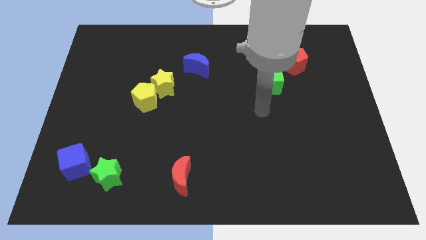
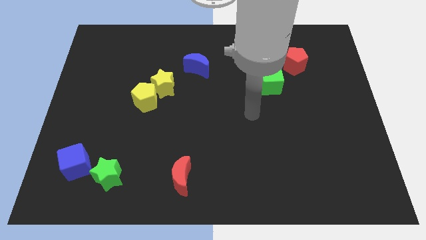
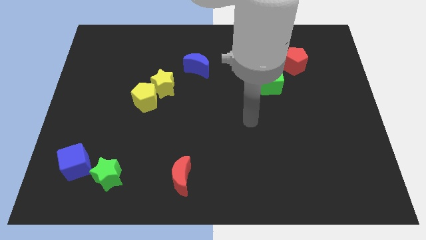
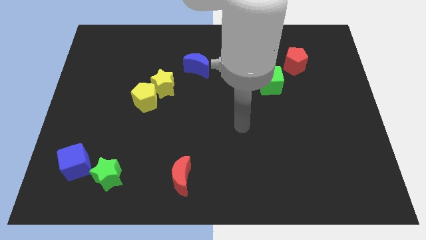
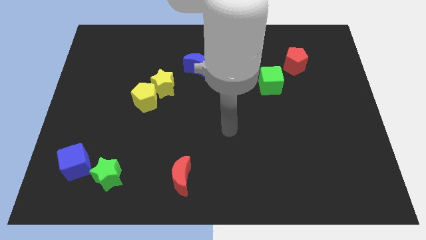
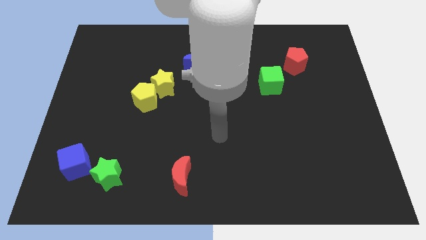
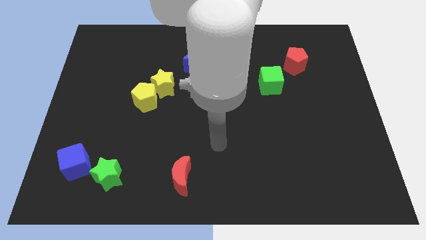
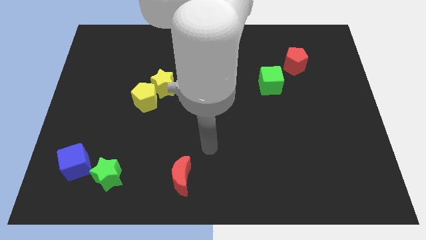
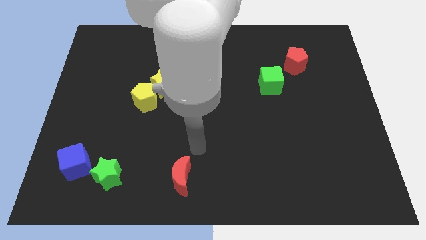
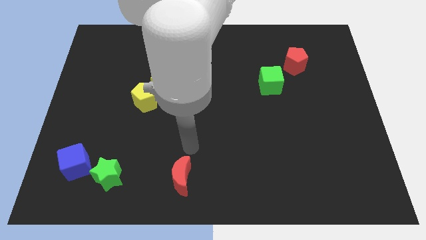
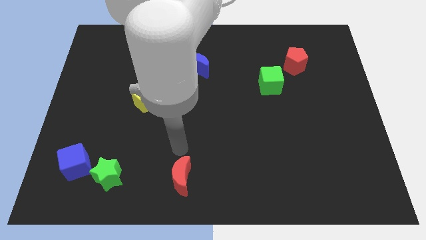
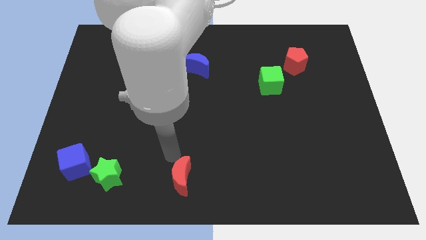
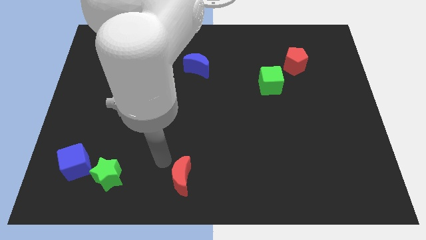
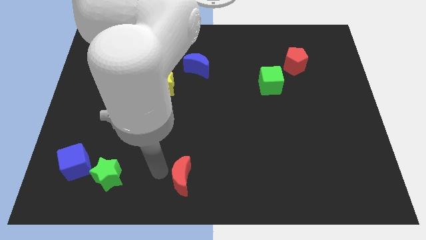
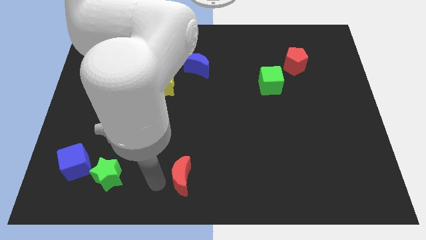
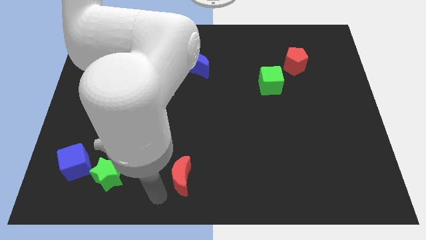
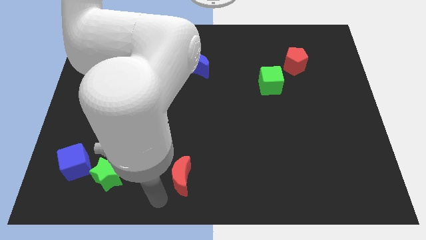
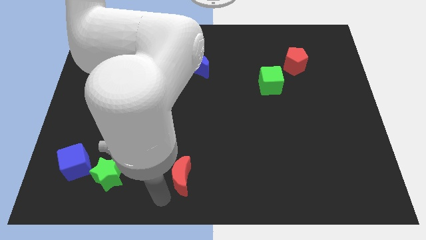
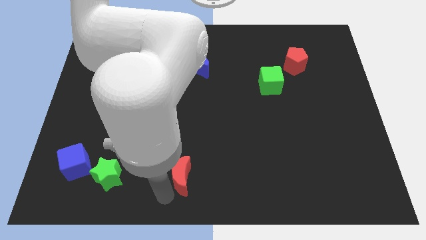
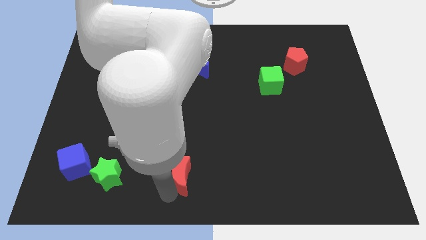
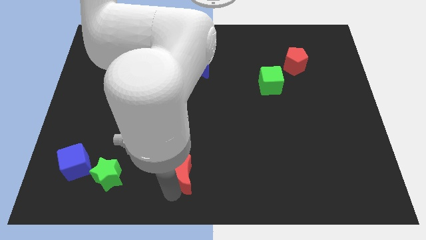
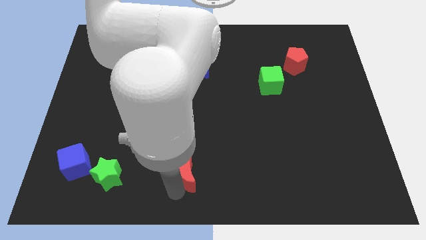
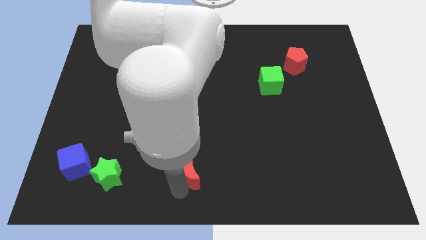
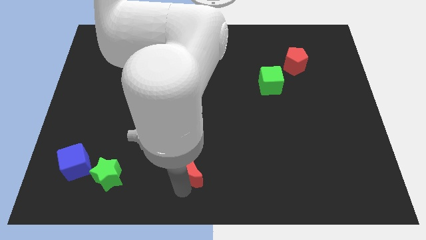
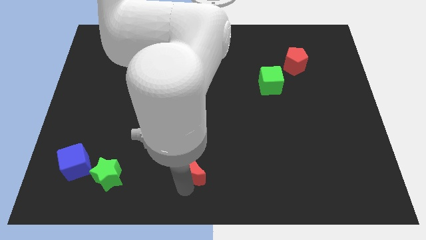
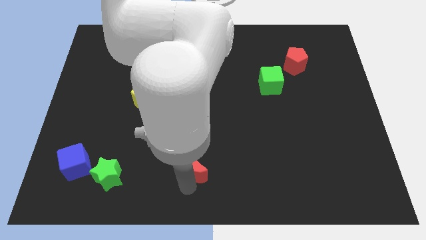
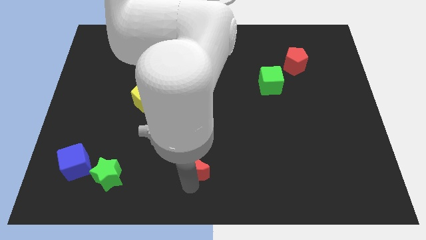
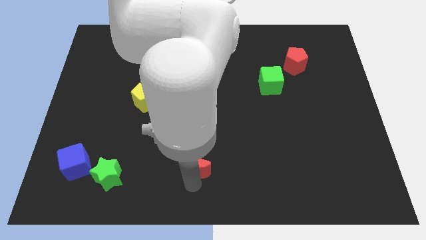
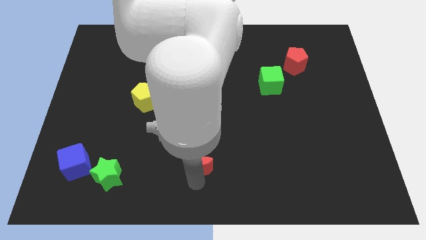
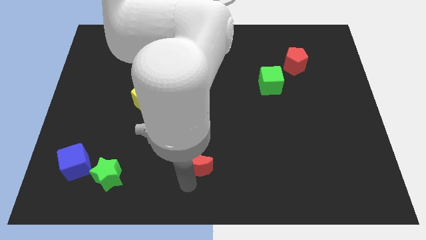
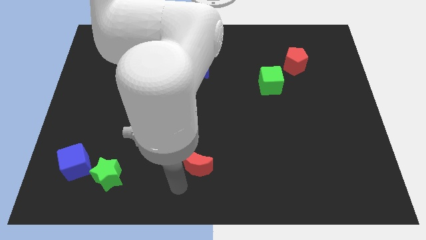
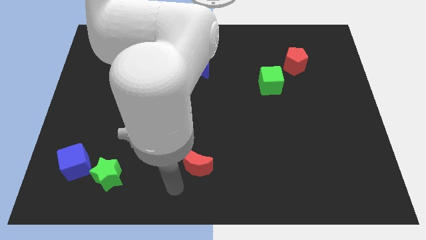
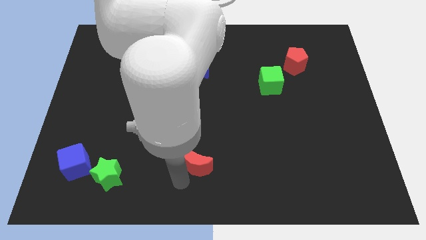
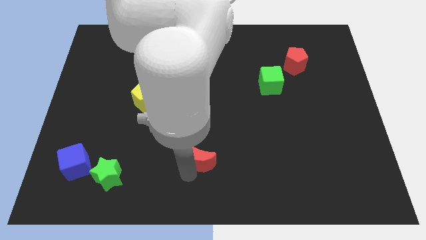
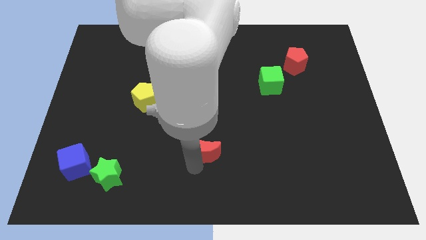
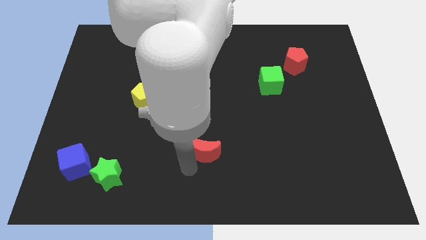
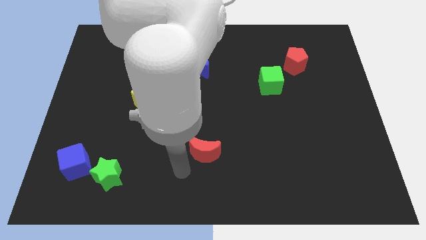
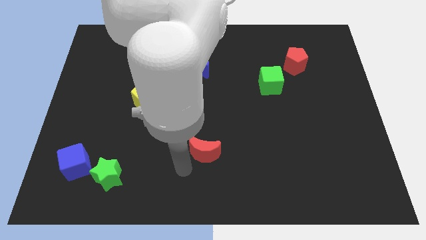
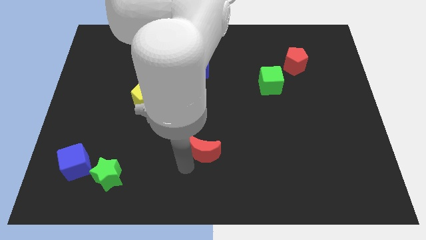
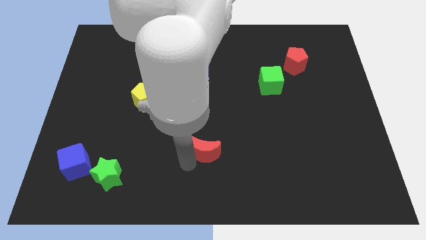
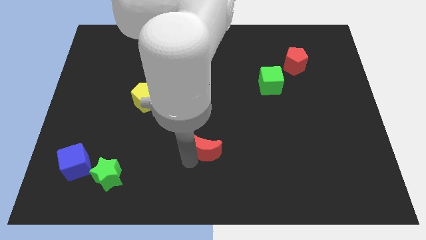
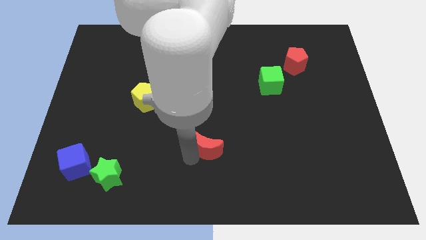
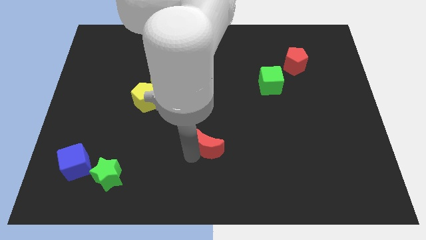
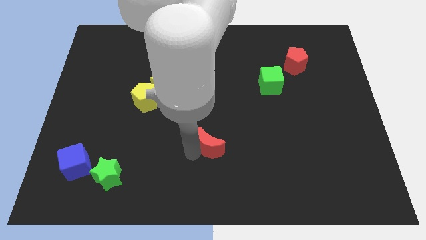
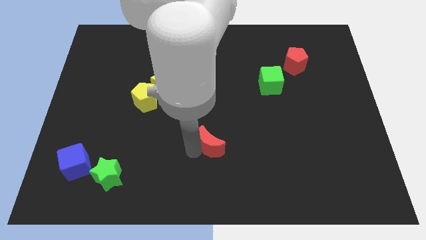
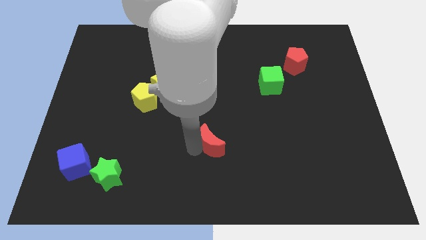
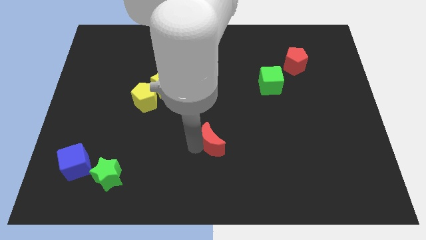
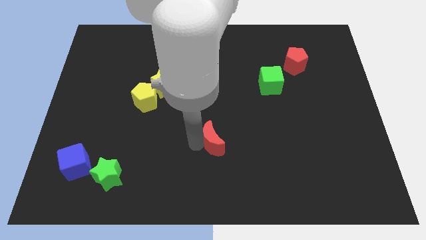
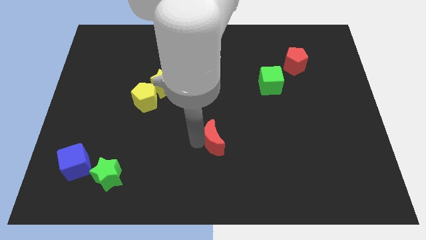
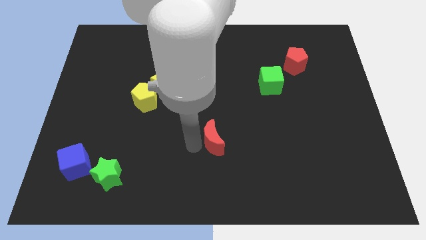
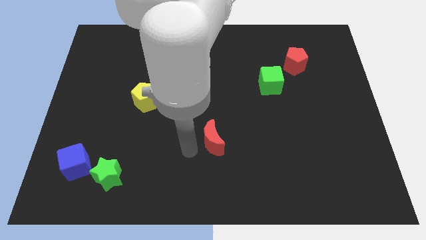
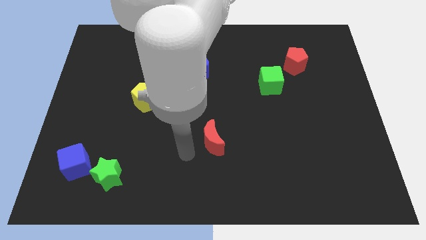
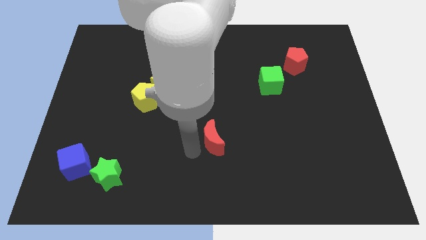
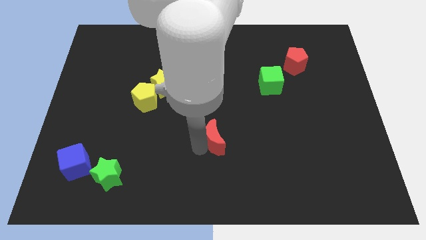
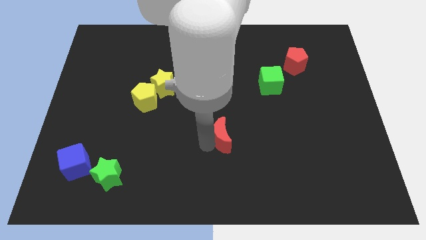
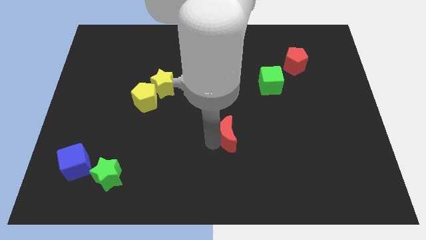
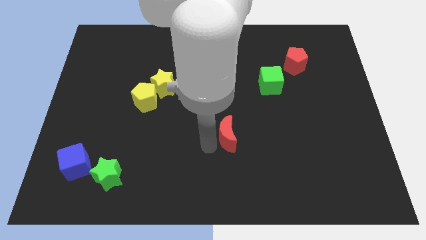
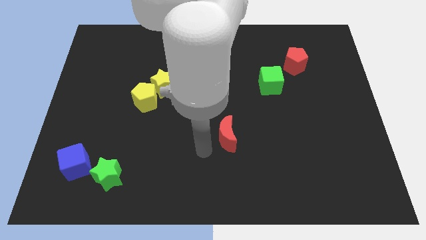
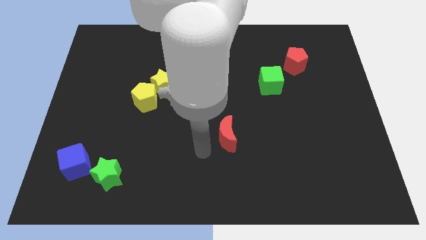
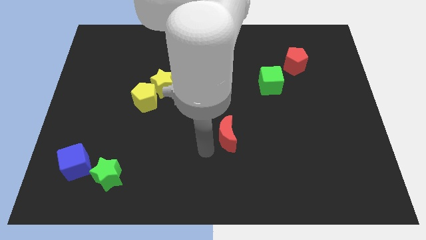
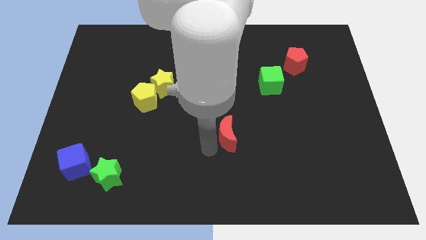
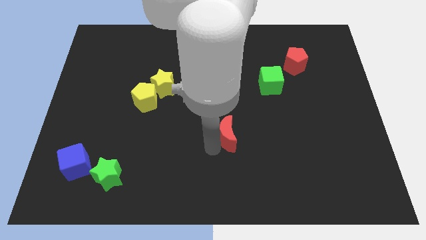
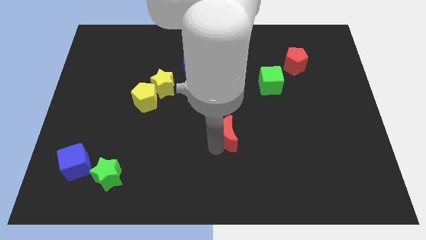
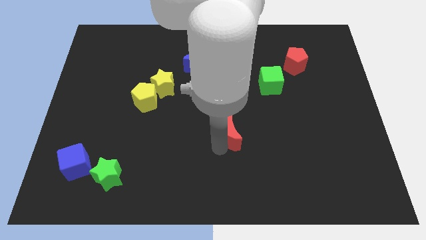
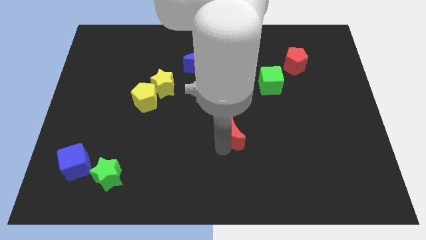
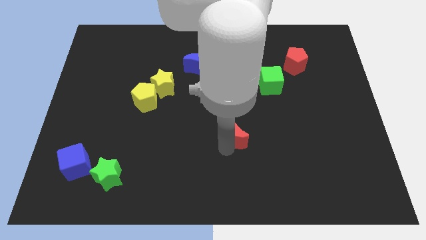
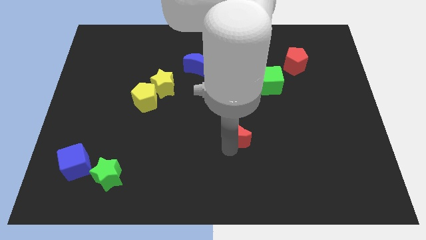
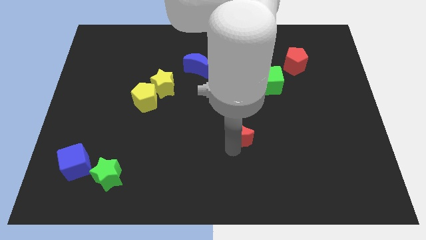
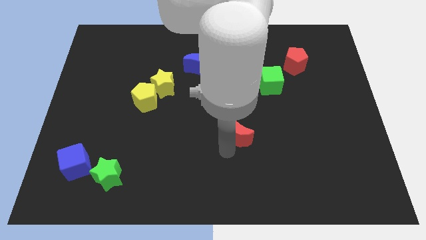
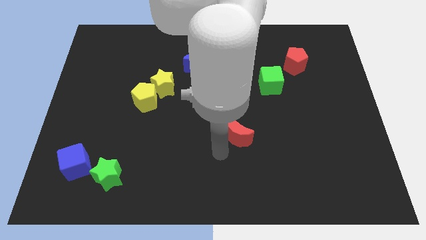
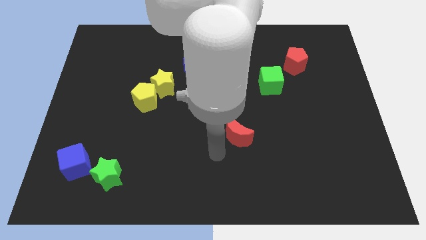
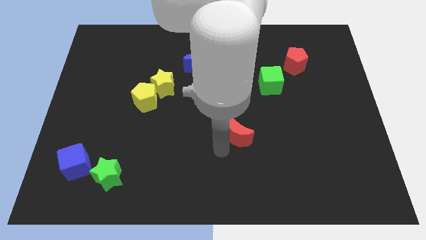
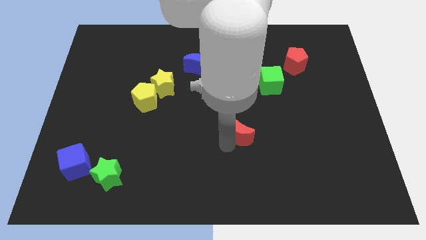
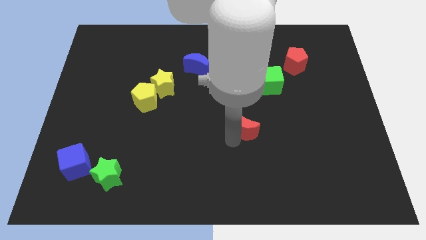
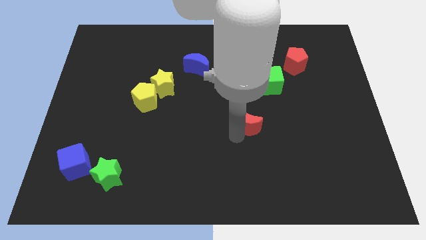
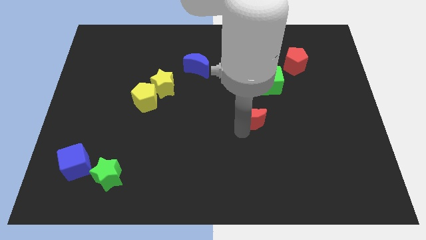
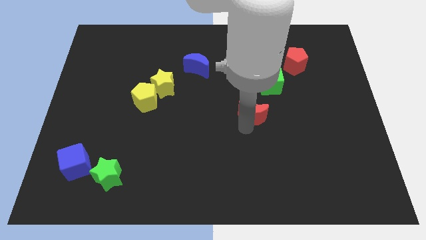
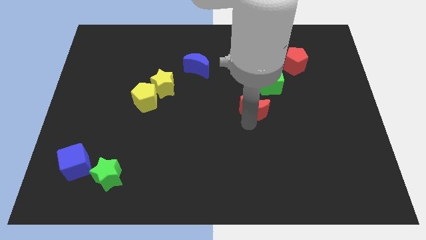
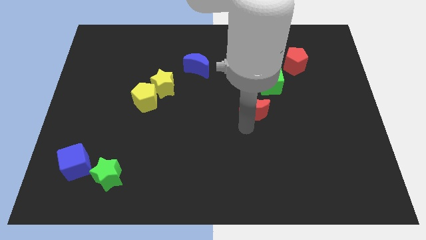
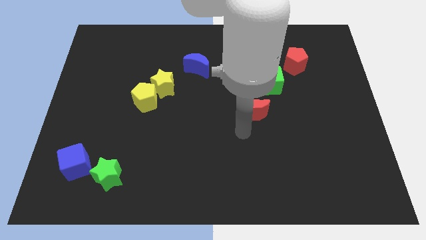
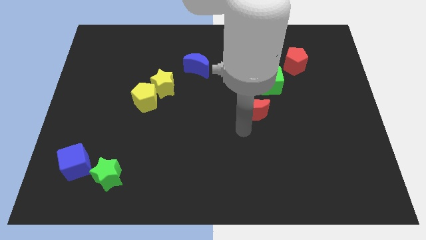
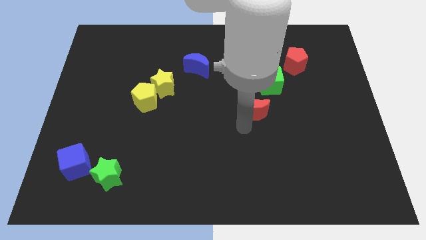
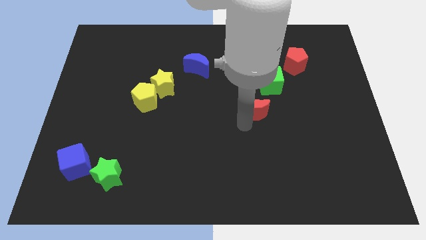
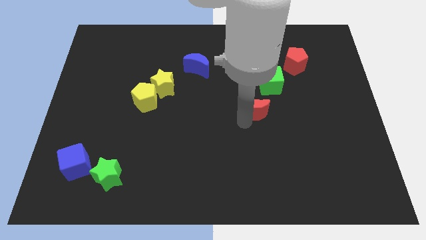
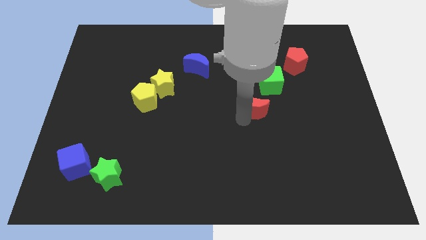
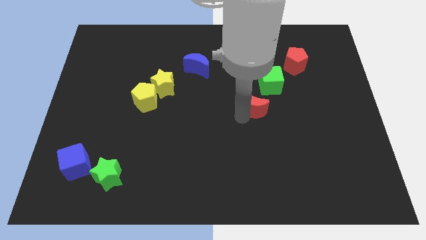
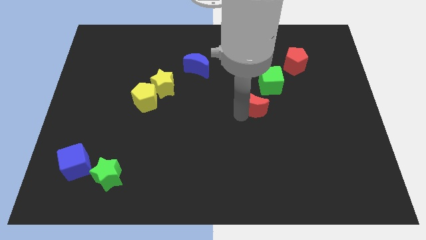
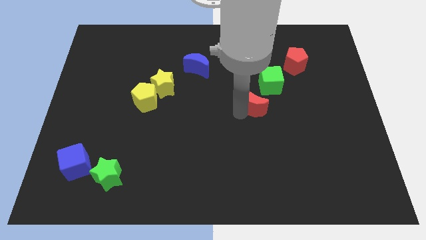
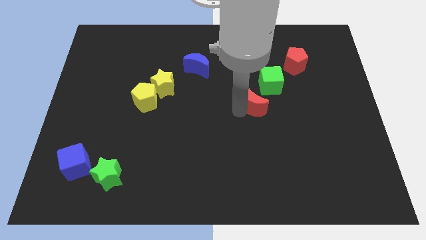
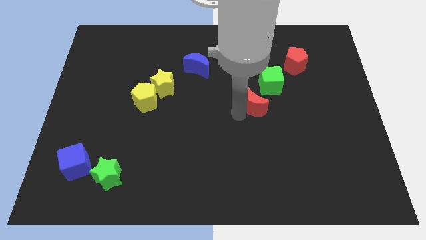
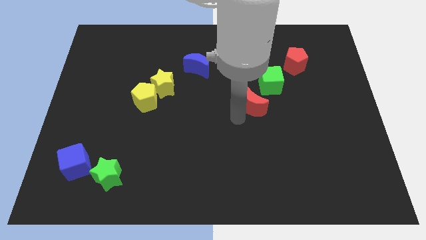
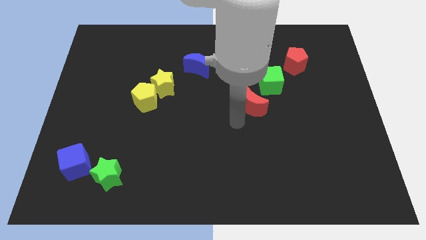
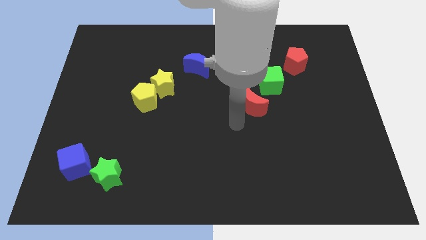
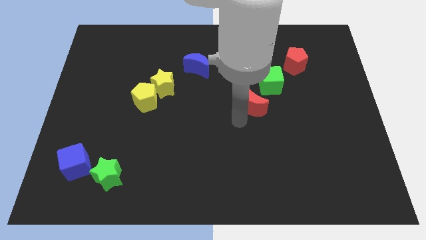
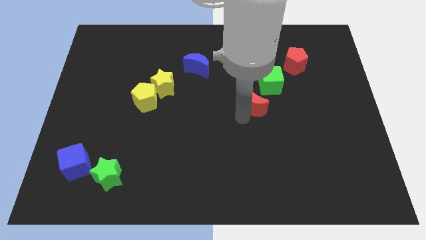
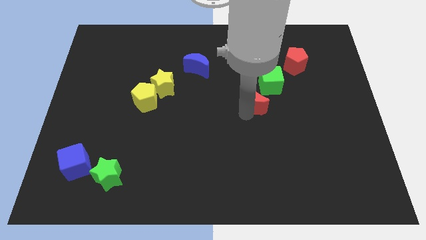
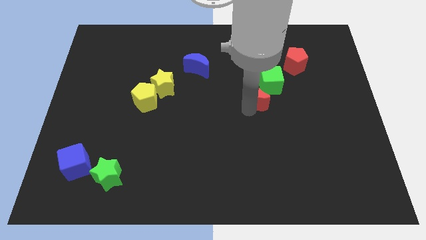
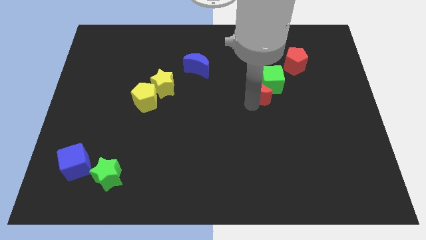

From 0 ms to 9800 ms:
push the red moon to the green cube
